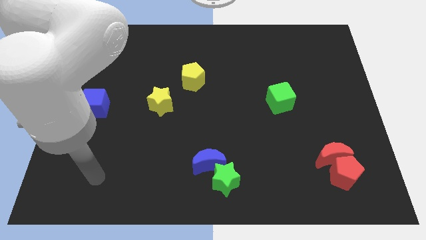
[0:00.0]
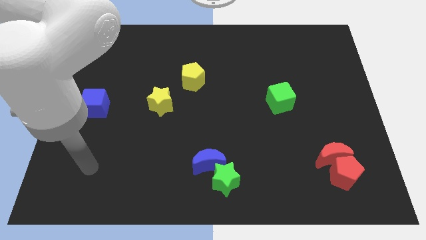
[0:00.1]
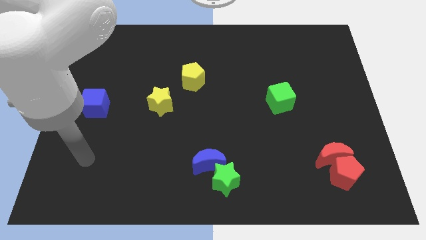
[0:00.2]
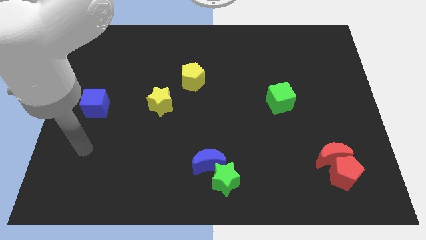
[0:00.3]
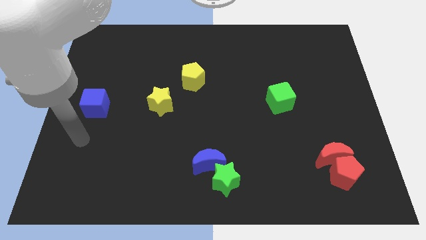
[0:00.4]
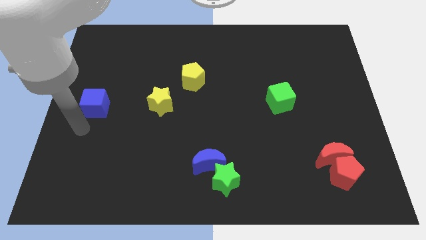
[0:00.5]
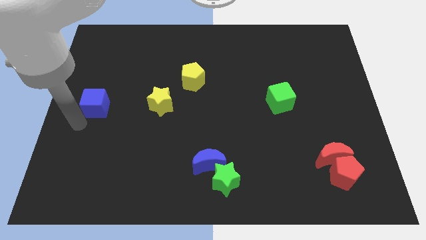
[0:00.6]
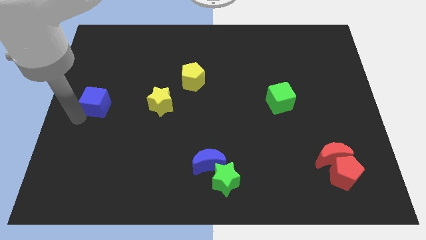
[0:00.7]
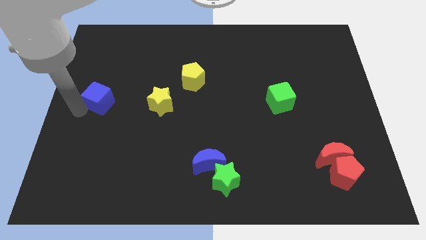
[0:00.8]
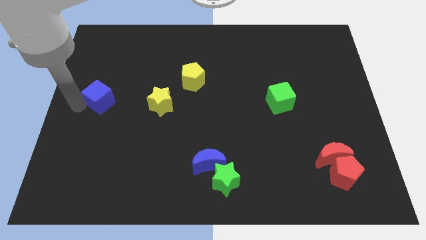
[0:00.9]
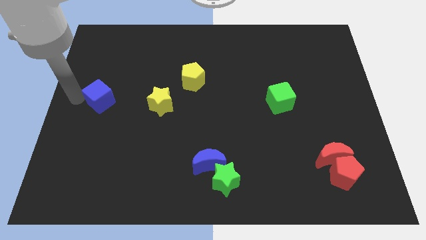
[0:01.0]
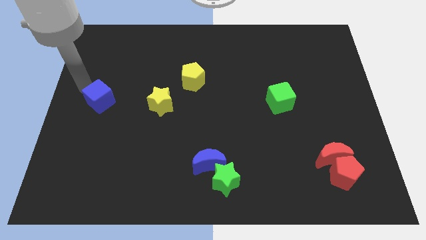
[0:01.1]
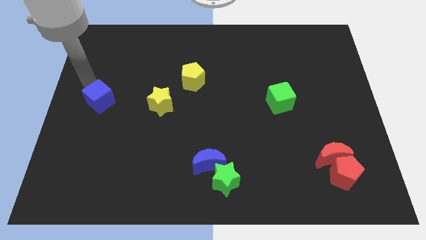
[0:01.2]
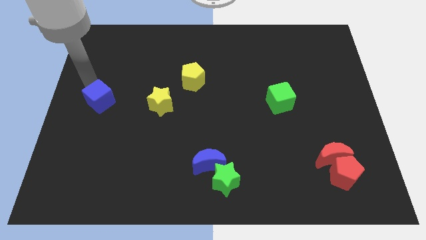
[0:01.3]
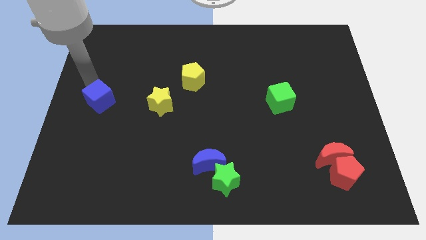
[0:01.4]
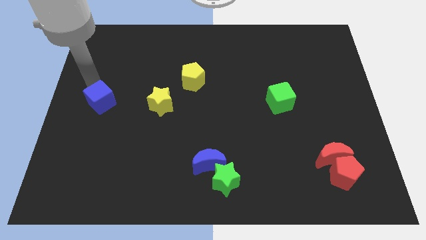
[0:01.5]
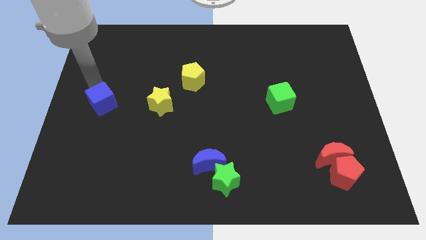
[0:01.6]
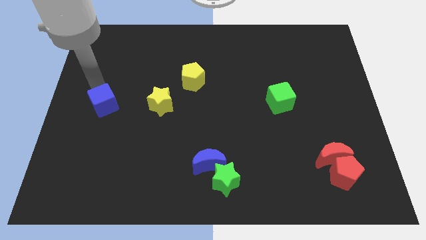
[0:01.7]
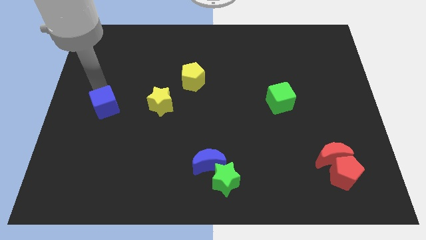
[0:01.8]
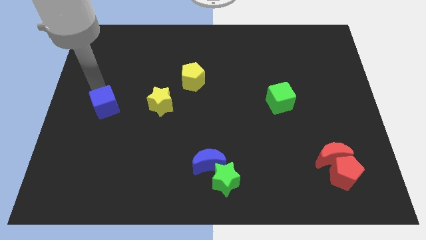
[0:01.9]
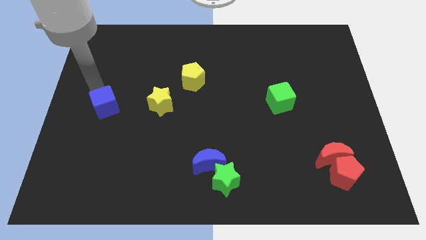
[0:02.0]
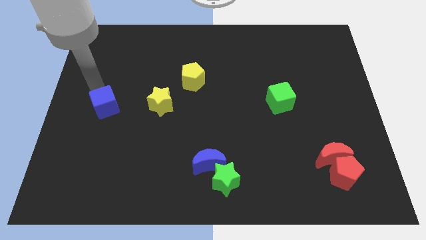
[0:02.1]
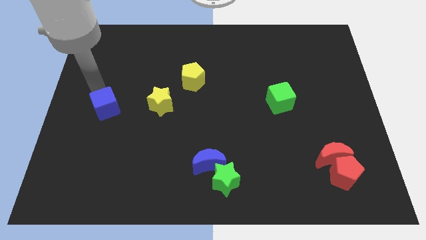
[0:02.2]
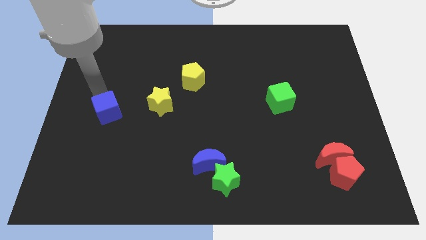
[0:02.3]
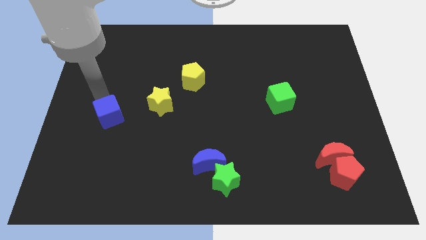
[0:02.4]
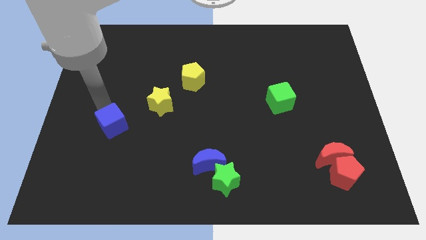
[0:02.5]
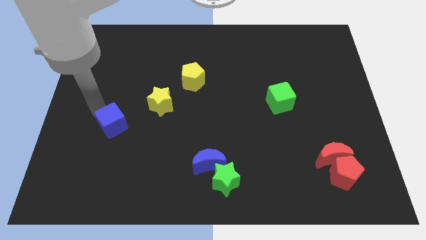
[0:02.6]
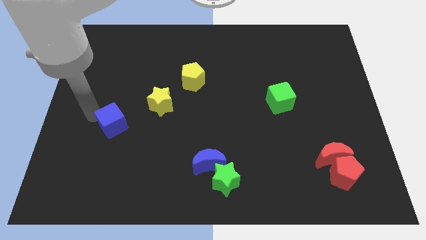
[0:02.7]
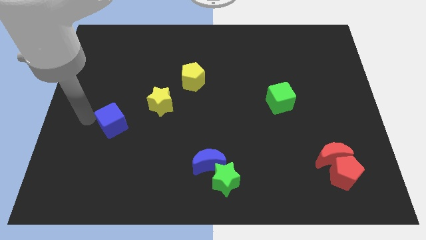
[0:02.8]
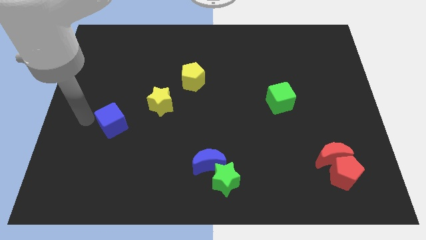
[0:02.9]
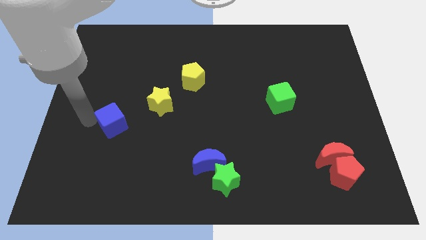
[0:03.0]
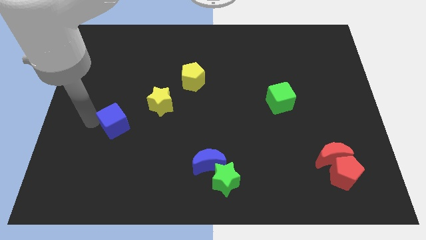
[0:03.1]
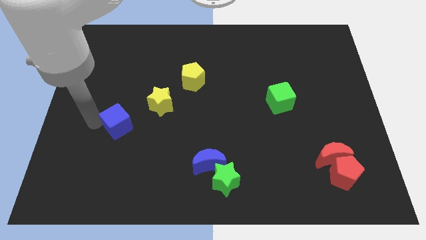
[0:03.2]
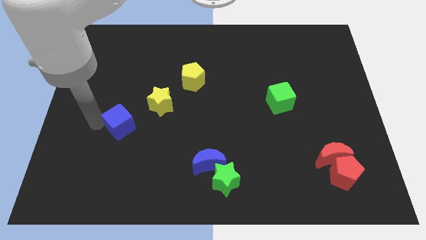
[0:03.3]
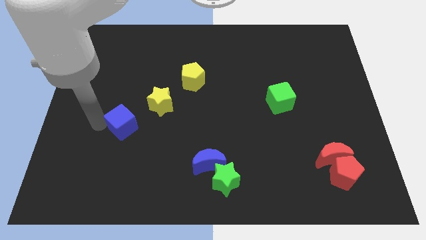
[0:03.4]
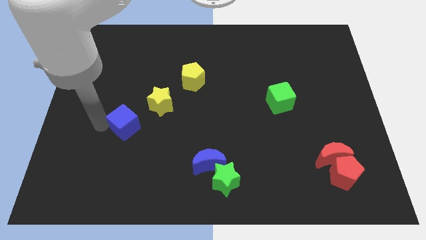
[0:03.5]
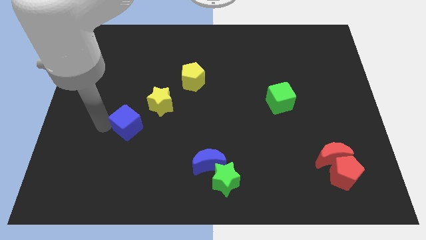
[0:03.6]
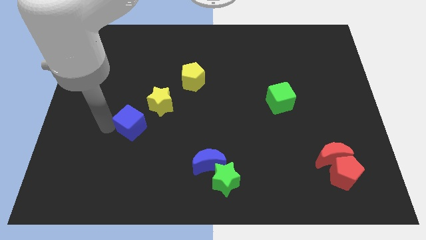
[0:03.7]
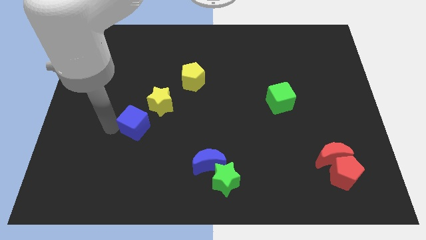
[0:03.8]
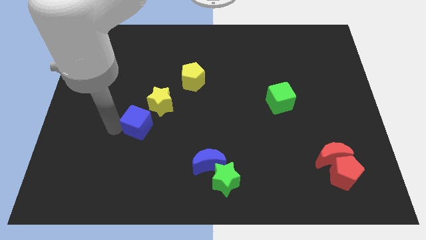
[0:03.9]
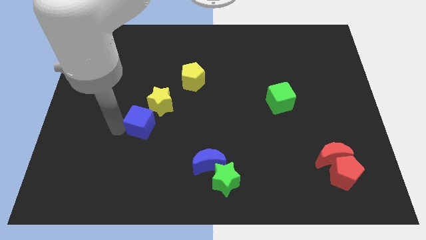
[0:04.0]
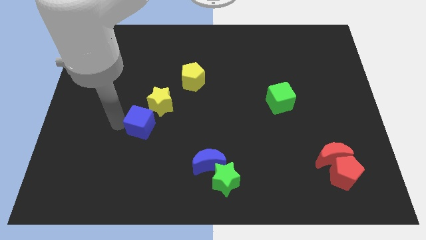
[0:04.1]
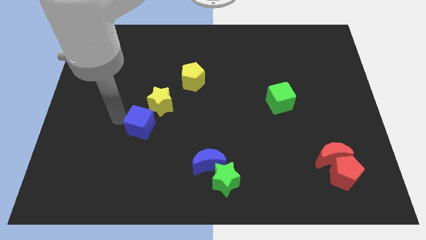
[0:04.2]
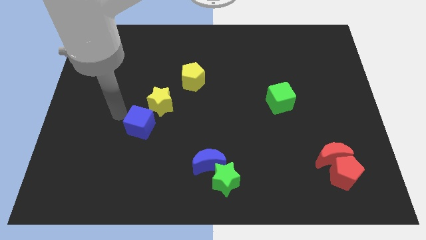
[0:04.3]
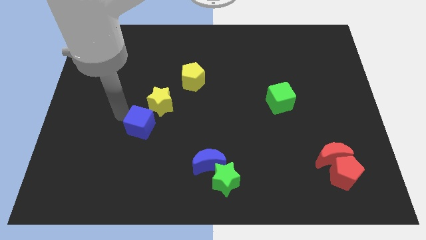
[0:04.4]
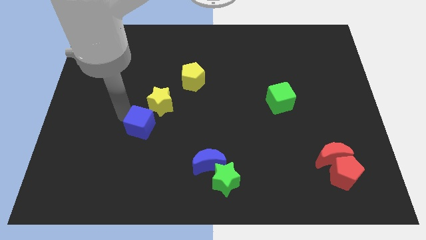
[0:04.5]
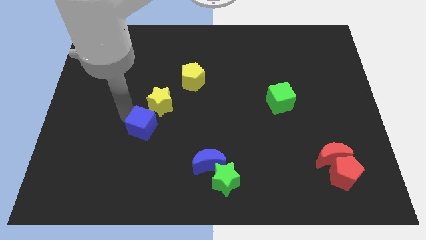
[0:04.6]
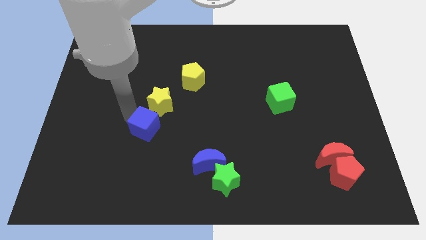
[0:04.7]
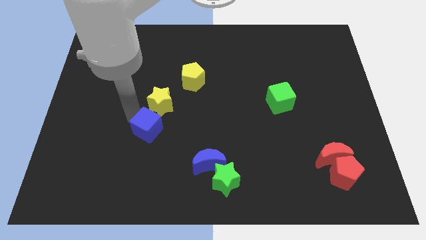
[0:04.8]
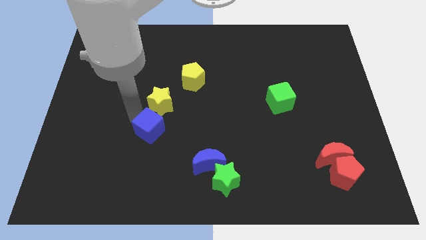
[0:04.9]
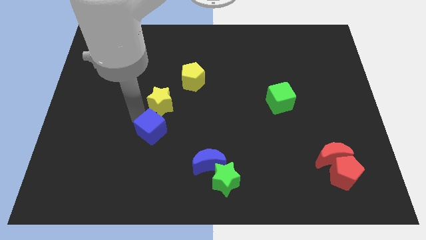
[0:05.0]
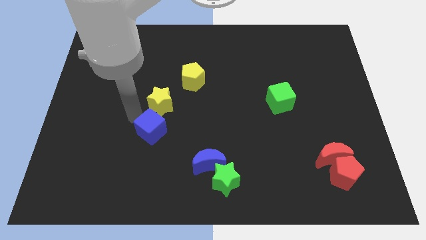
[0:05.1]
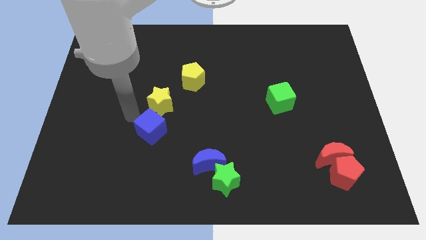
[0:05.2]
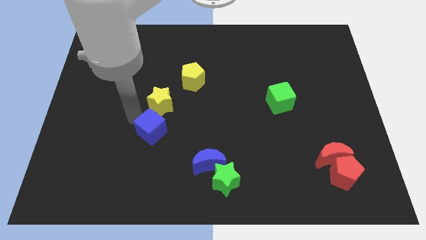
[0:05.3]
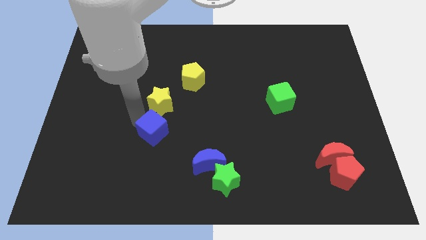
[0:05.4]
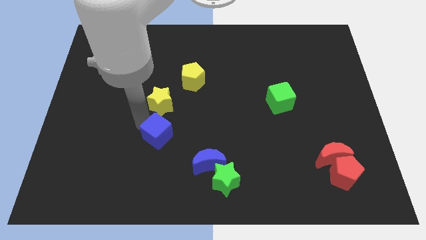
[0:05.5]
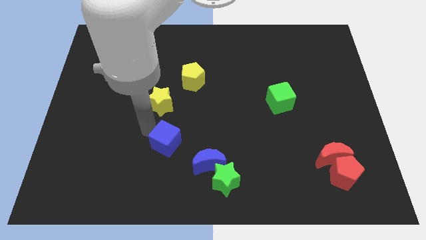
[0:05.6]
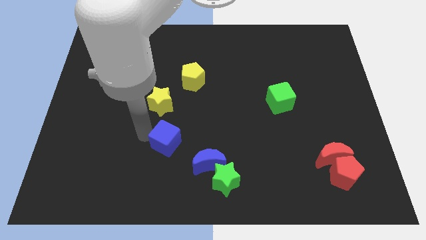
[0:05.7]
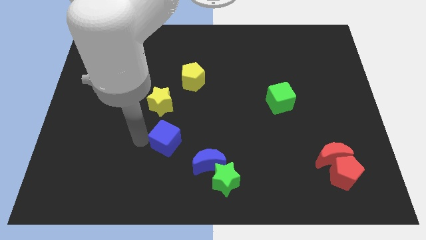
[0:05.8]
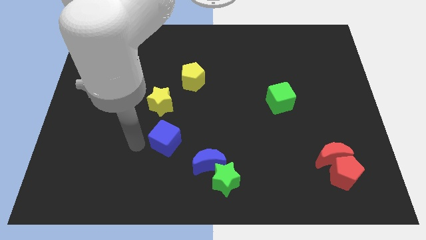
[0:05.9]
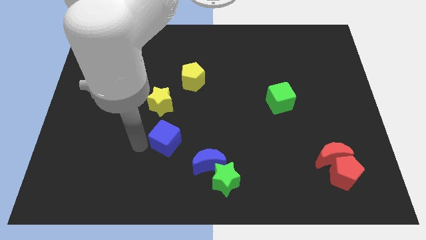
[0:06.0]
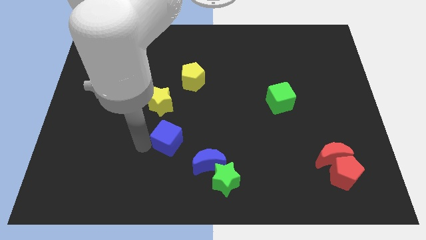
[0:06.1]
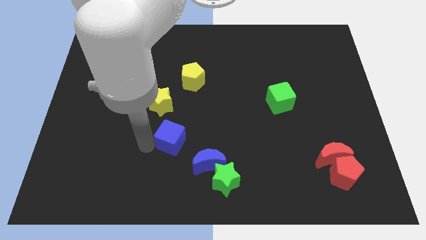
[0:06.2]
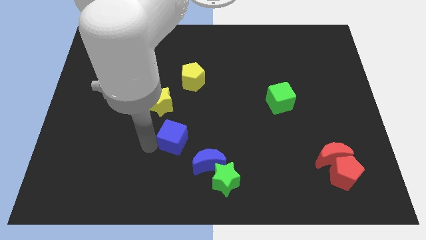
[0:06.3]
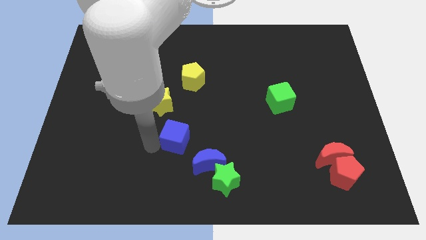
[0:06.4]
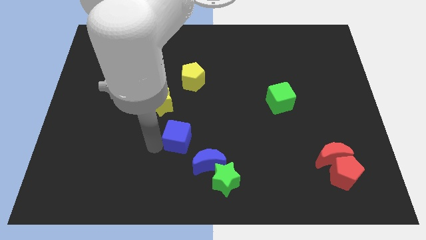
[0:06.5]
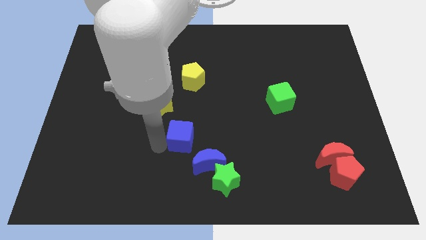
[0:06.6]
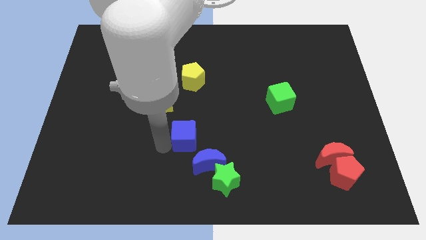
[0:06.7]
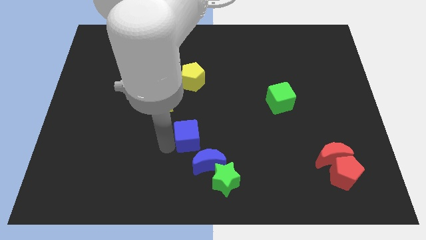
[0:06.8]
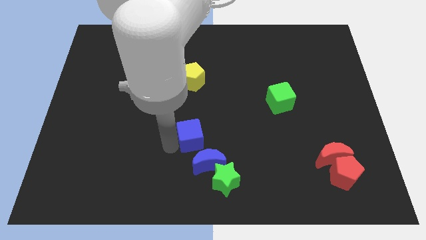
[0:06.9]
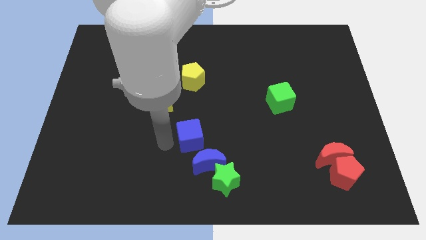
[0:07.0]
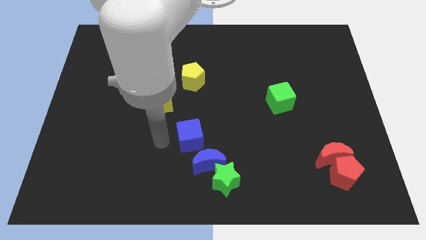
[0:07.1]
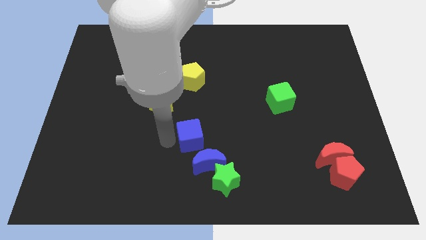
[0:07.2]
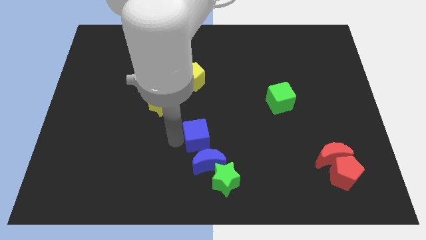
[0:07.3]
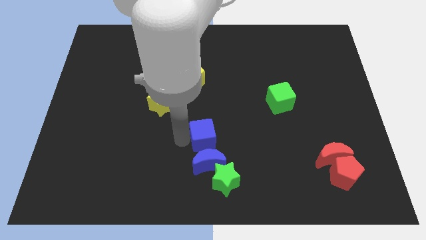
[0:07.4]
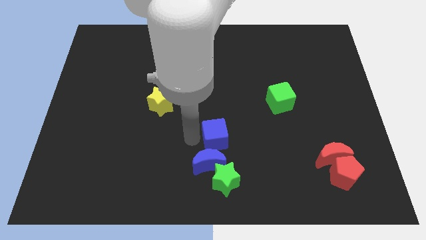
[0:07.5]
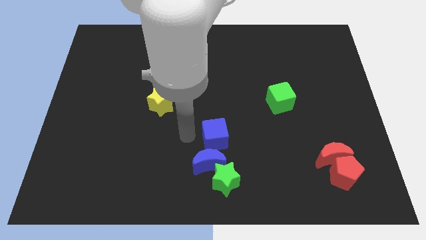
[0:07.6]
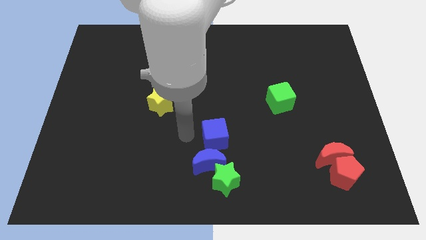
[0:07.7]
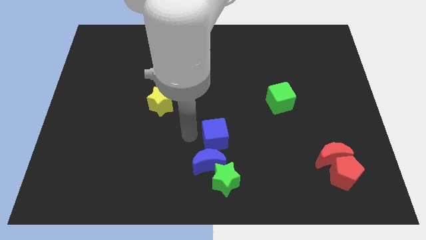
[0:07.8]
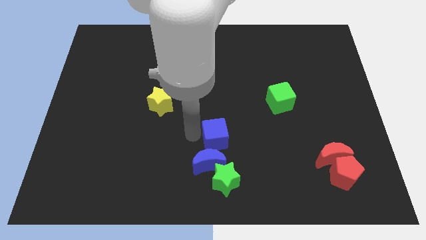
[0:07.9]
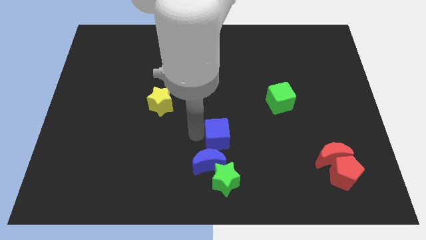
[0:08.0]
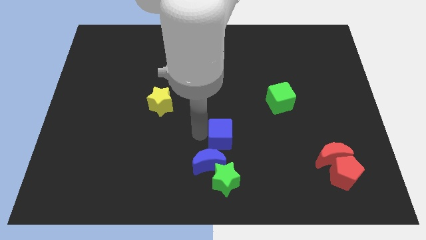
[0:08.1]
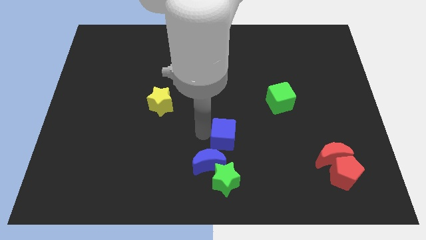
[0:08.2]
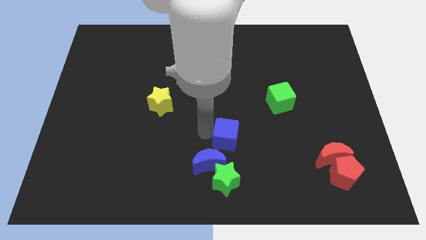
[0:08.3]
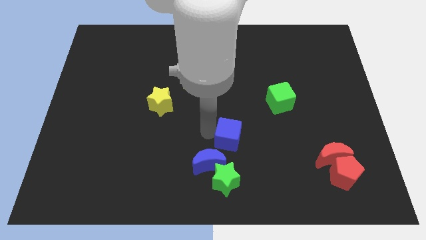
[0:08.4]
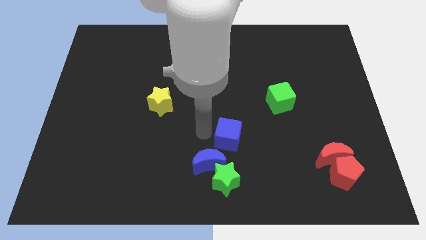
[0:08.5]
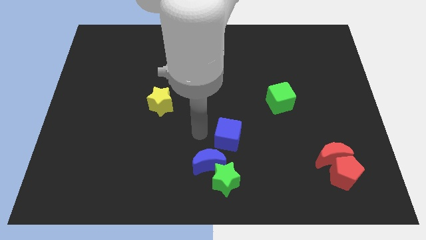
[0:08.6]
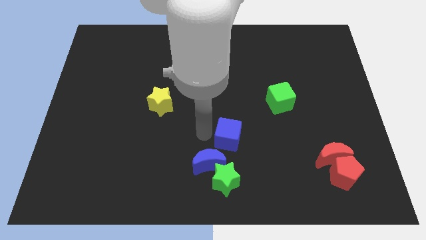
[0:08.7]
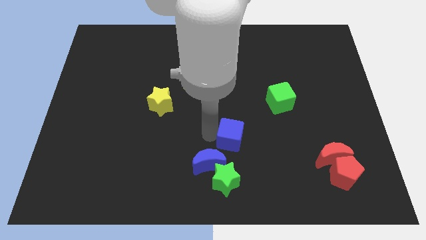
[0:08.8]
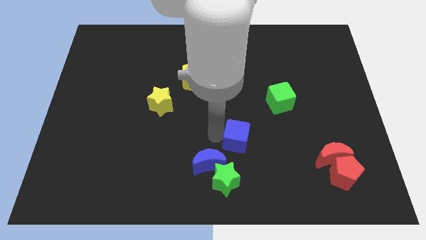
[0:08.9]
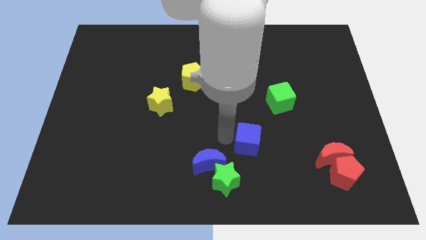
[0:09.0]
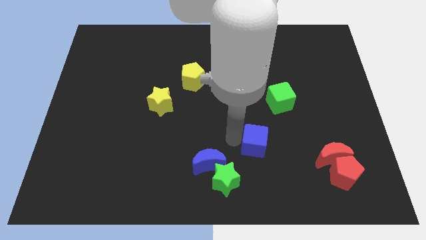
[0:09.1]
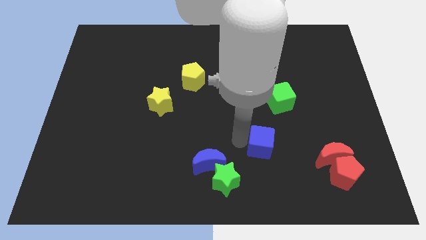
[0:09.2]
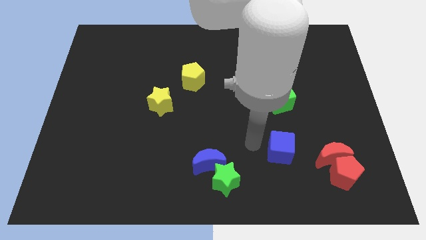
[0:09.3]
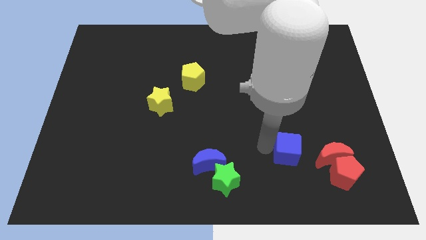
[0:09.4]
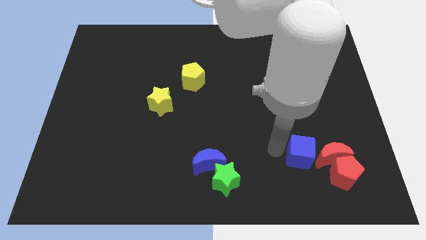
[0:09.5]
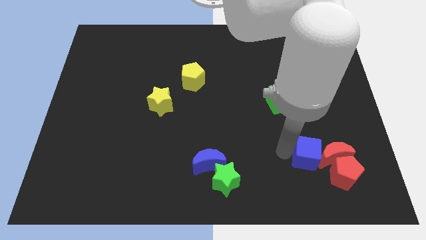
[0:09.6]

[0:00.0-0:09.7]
slide the blue cube towards the red moon
